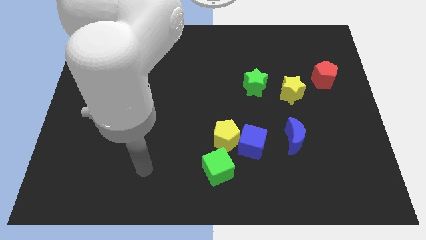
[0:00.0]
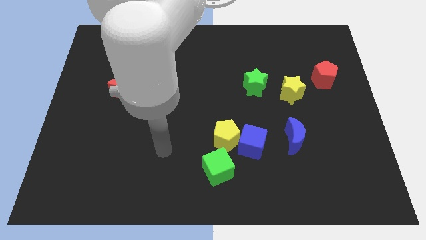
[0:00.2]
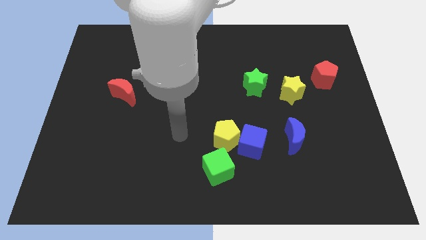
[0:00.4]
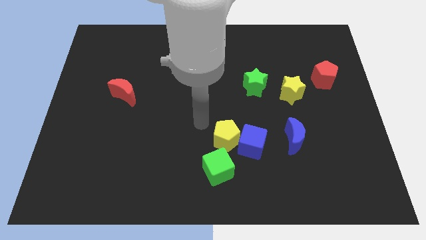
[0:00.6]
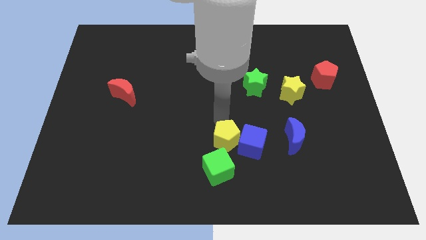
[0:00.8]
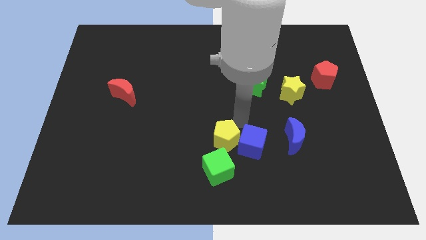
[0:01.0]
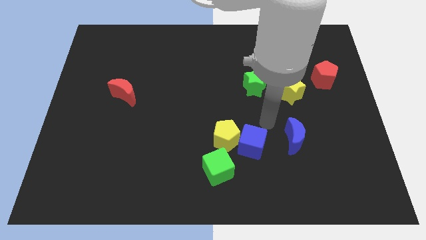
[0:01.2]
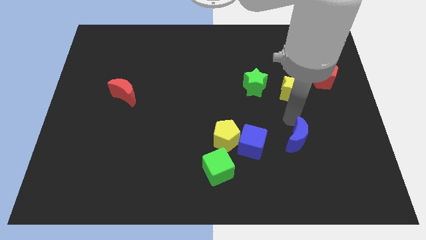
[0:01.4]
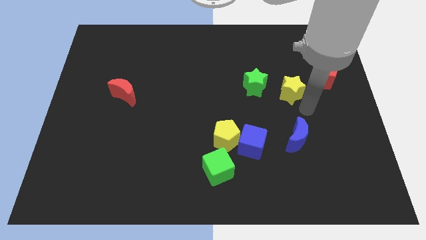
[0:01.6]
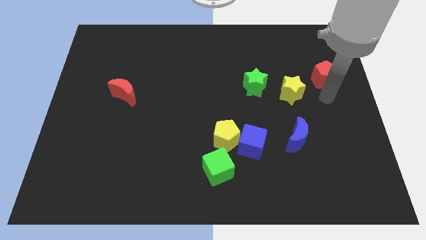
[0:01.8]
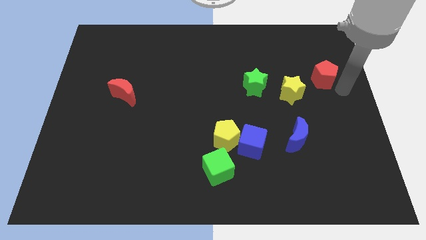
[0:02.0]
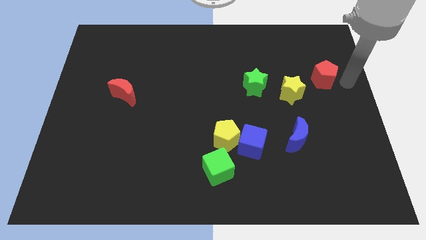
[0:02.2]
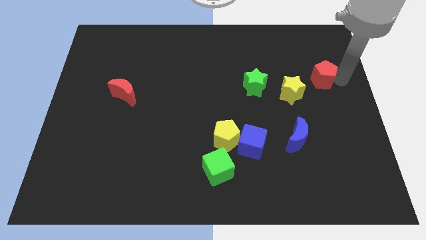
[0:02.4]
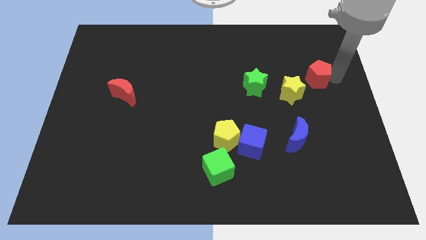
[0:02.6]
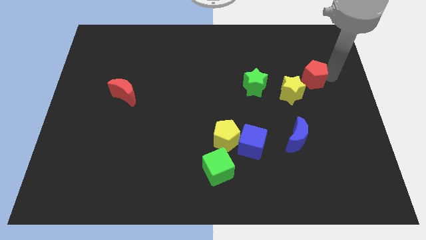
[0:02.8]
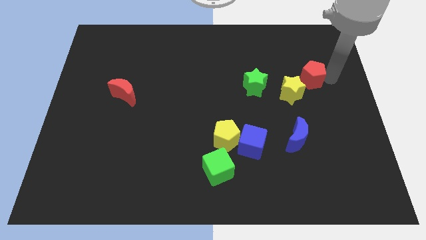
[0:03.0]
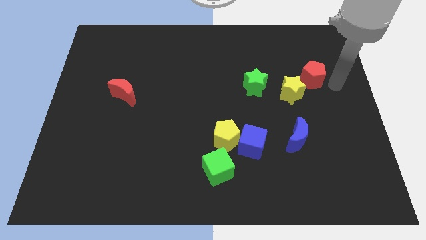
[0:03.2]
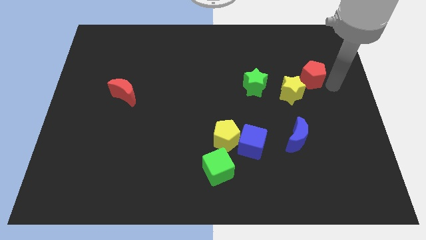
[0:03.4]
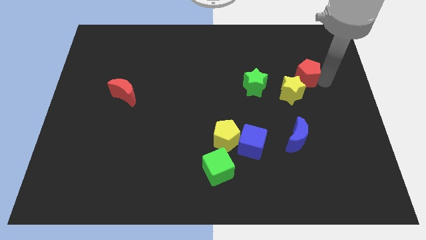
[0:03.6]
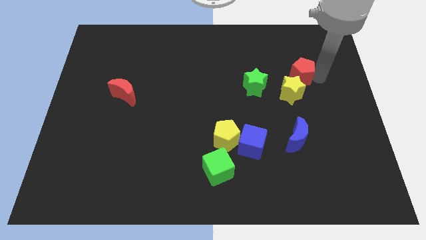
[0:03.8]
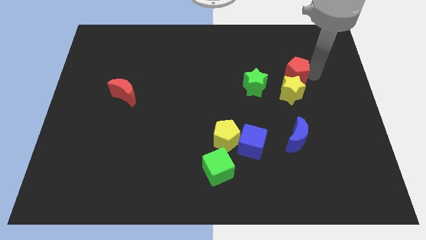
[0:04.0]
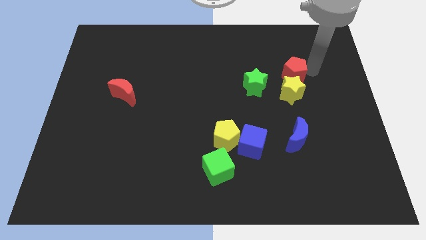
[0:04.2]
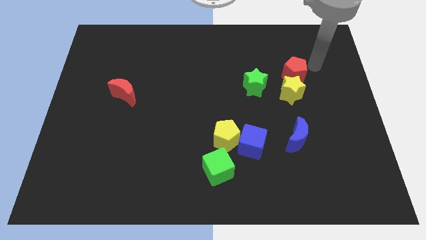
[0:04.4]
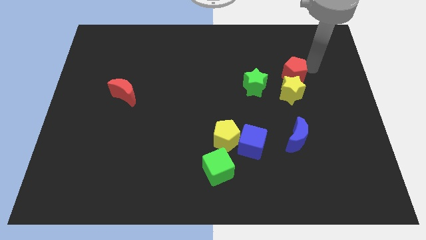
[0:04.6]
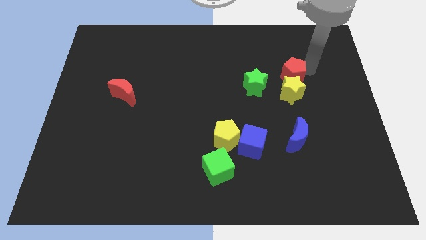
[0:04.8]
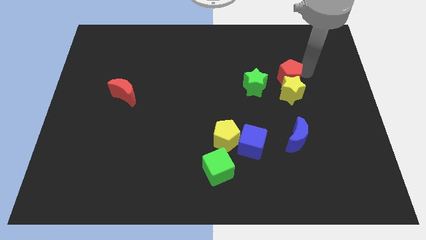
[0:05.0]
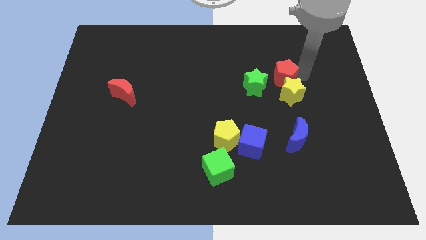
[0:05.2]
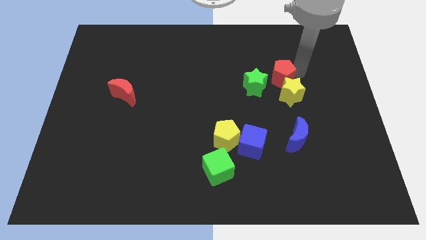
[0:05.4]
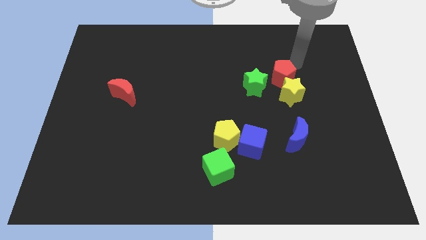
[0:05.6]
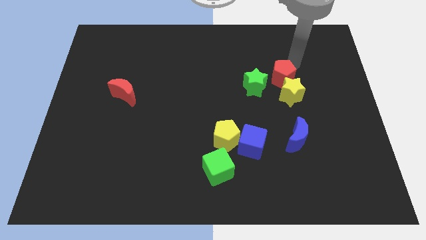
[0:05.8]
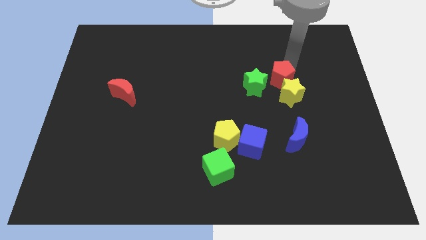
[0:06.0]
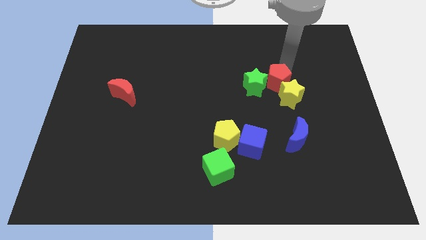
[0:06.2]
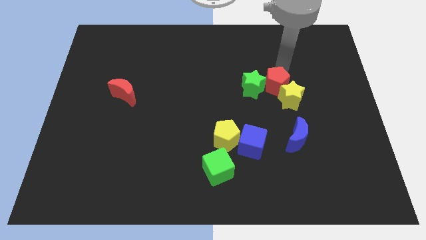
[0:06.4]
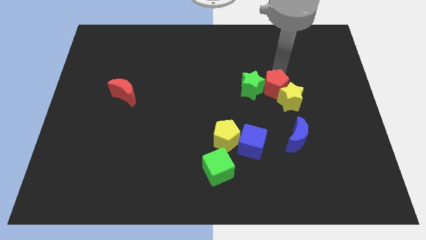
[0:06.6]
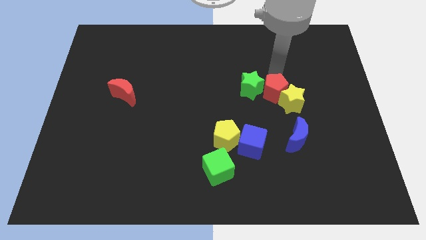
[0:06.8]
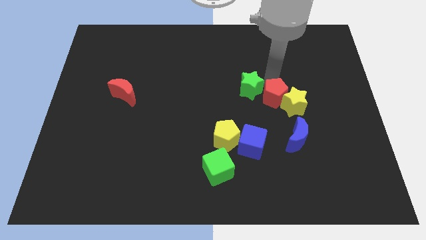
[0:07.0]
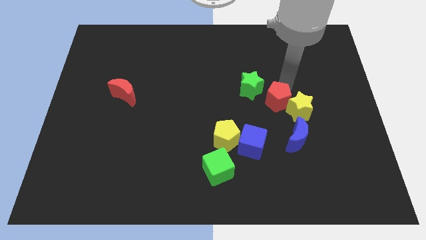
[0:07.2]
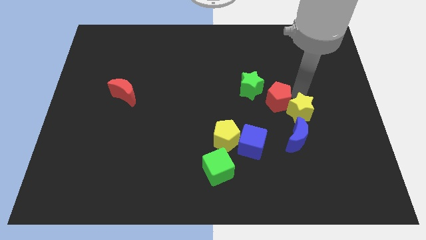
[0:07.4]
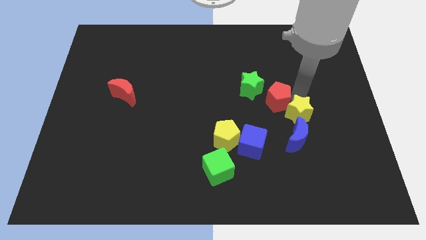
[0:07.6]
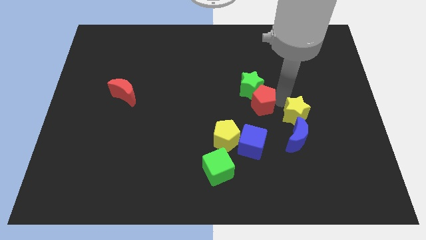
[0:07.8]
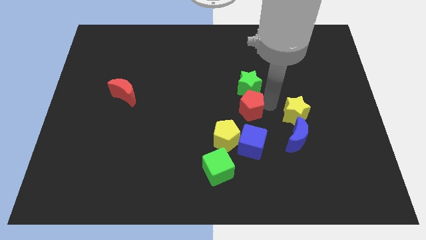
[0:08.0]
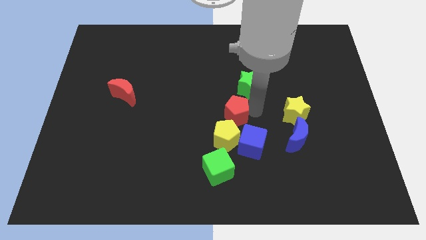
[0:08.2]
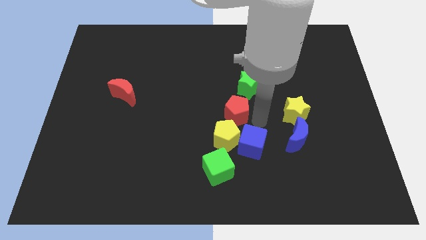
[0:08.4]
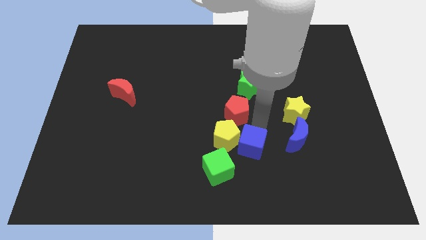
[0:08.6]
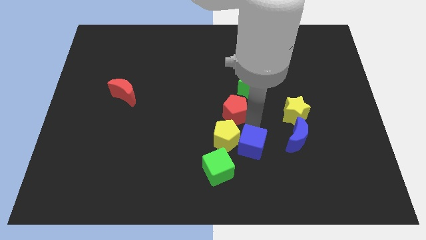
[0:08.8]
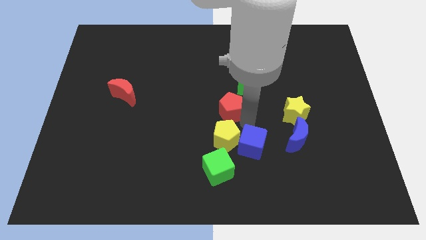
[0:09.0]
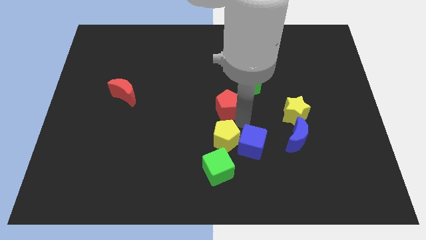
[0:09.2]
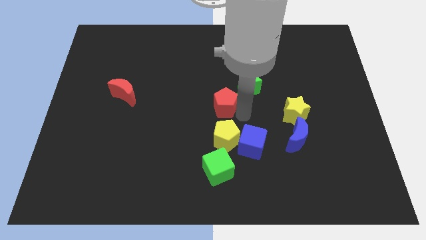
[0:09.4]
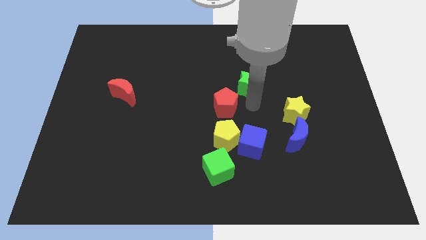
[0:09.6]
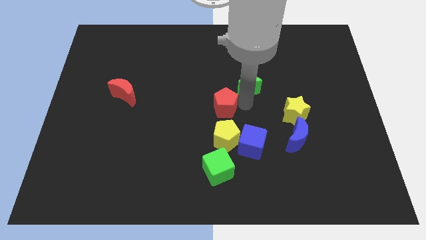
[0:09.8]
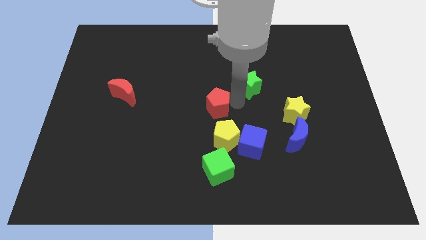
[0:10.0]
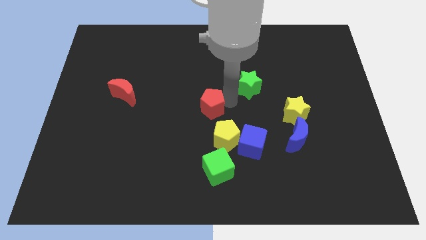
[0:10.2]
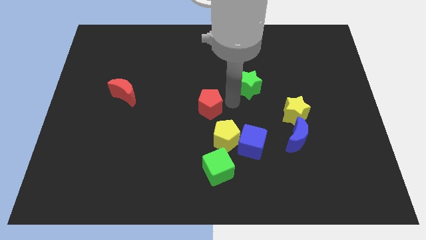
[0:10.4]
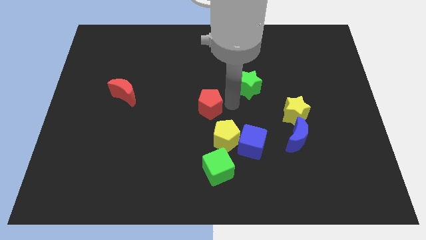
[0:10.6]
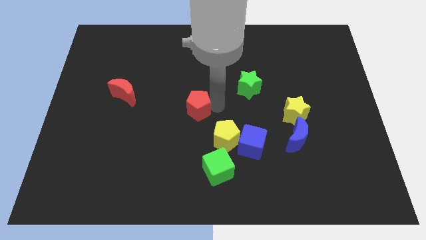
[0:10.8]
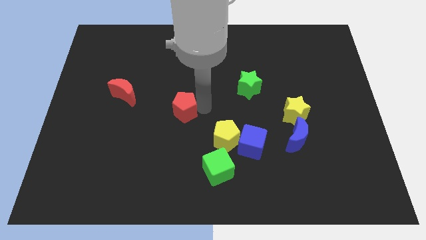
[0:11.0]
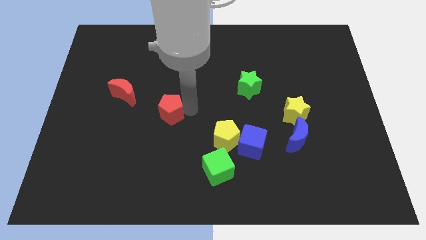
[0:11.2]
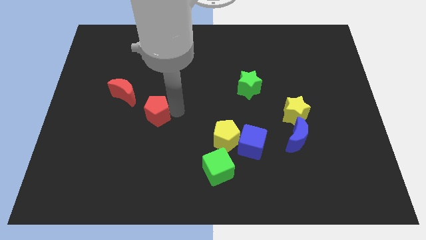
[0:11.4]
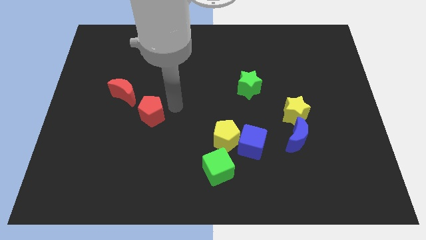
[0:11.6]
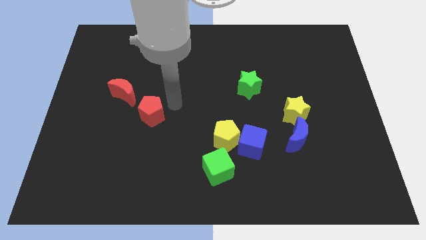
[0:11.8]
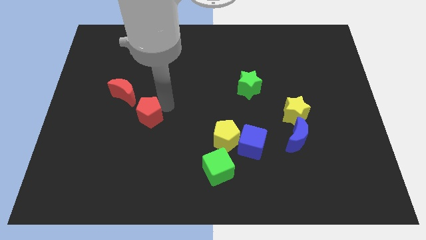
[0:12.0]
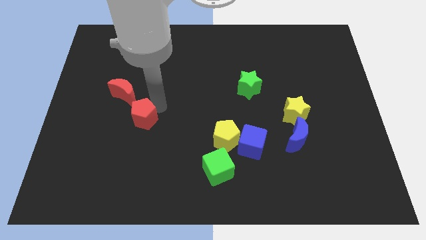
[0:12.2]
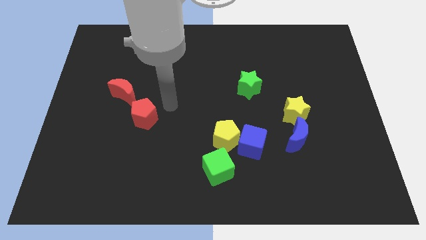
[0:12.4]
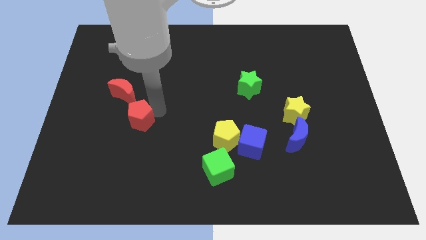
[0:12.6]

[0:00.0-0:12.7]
move the red pentagon below the red moon

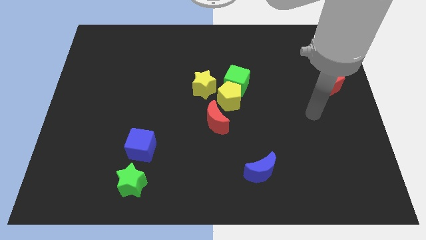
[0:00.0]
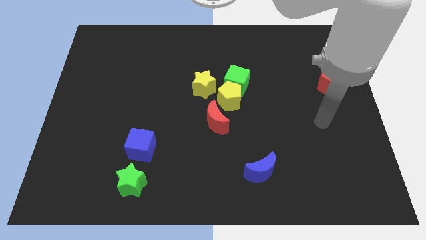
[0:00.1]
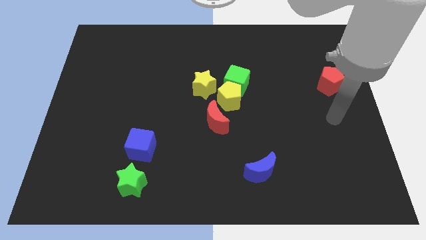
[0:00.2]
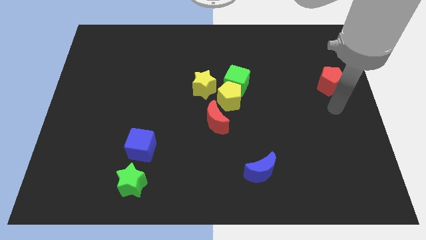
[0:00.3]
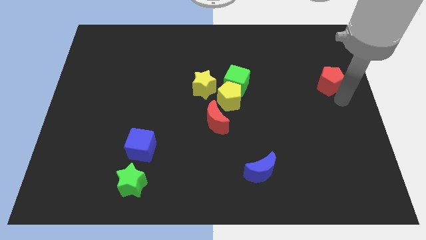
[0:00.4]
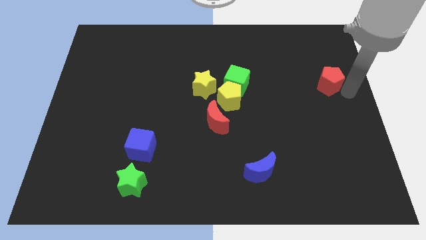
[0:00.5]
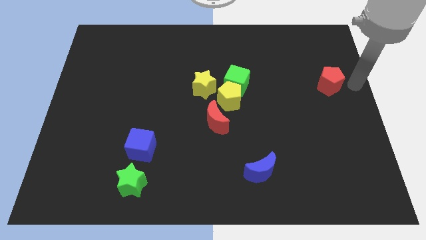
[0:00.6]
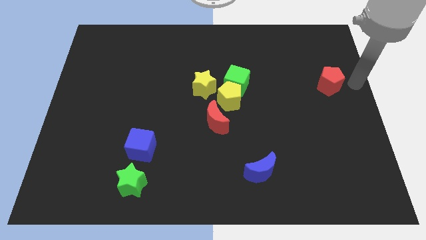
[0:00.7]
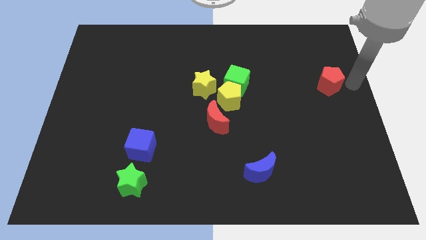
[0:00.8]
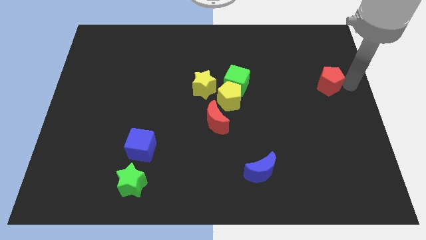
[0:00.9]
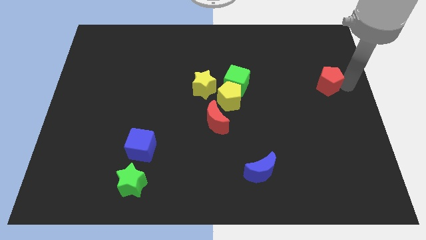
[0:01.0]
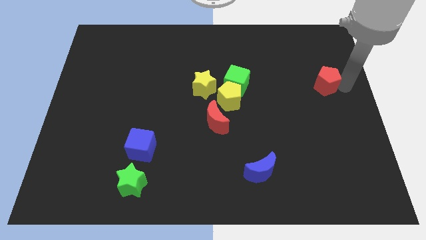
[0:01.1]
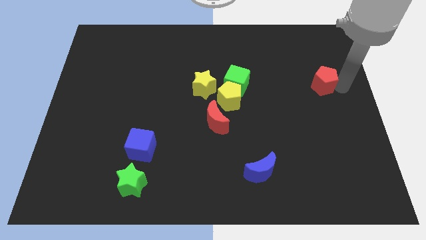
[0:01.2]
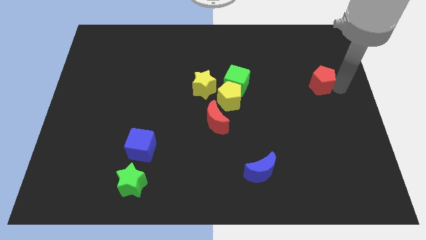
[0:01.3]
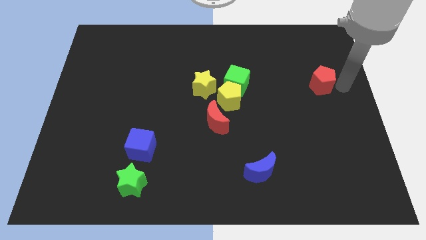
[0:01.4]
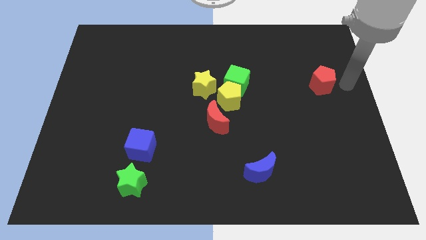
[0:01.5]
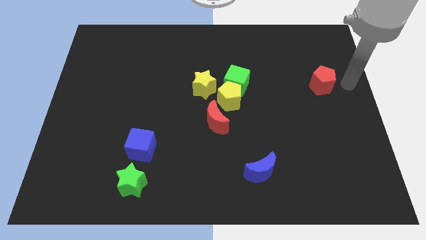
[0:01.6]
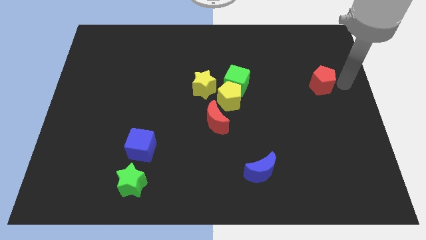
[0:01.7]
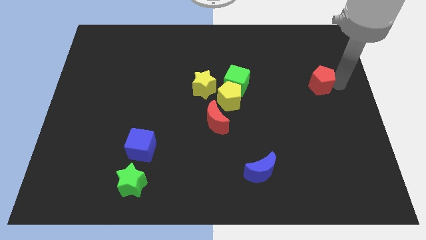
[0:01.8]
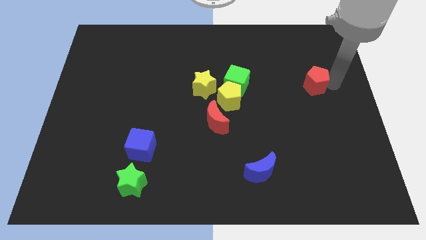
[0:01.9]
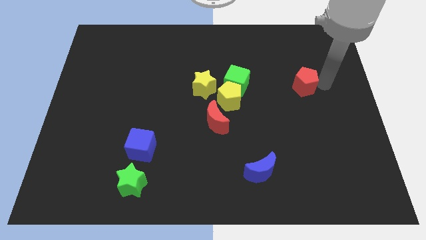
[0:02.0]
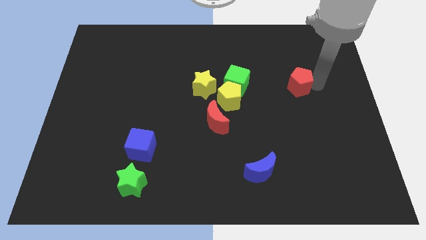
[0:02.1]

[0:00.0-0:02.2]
put the red pentagon just right of the green cube
